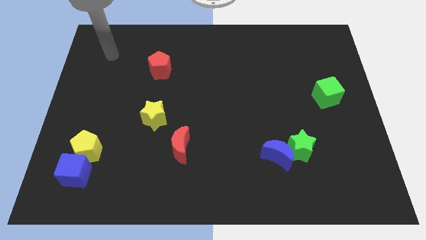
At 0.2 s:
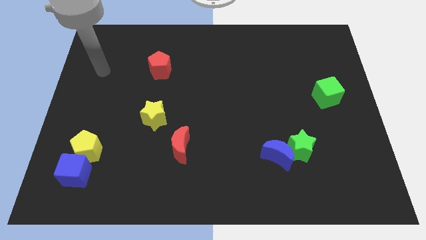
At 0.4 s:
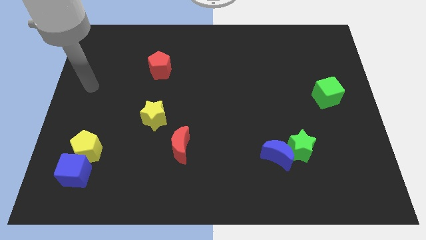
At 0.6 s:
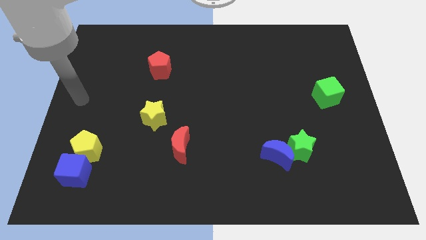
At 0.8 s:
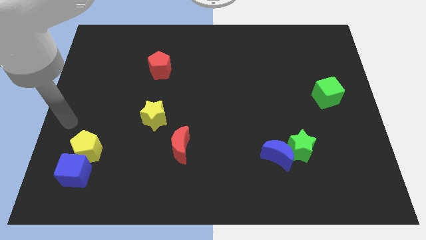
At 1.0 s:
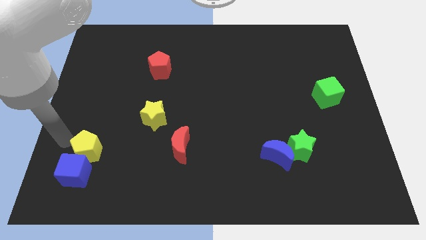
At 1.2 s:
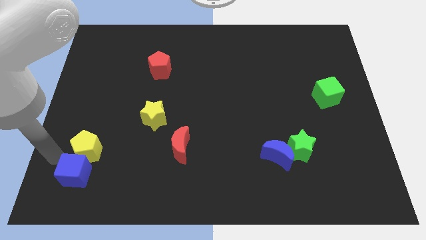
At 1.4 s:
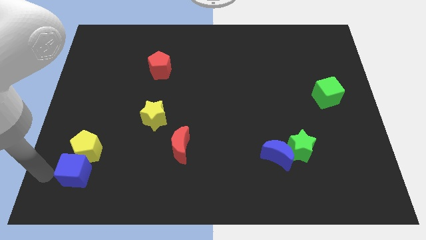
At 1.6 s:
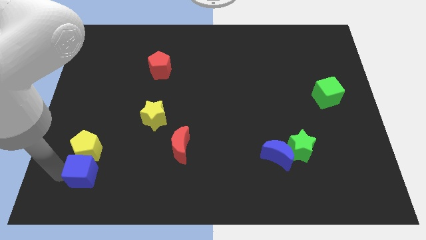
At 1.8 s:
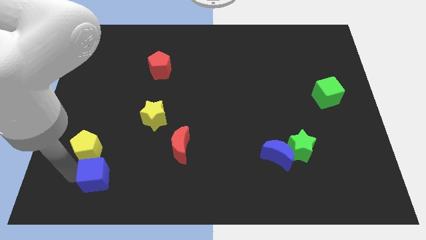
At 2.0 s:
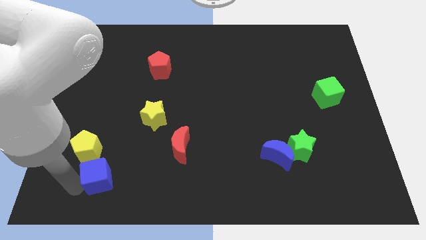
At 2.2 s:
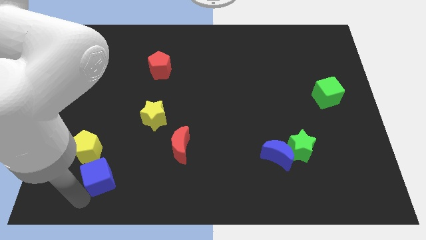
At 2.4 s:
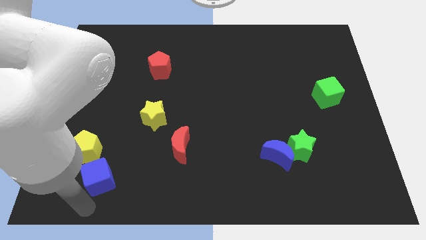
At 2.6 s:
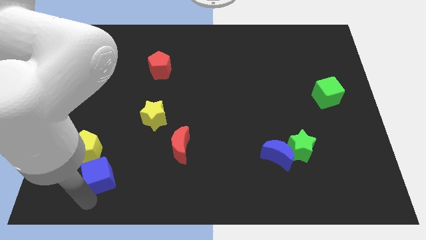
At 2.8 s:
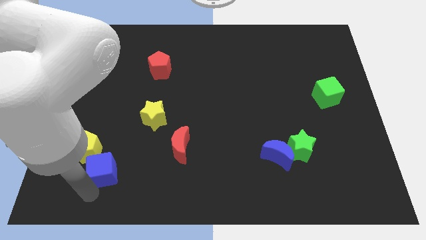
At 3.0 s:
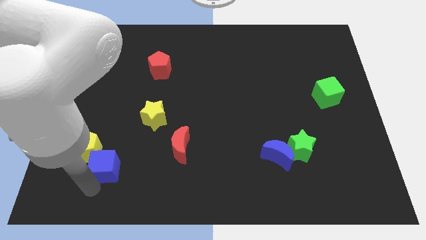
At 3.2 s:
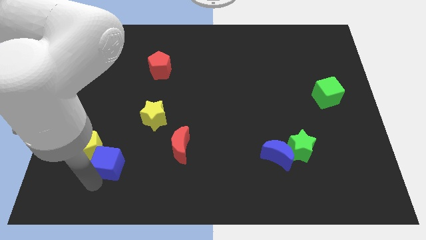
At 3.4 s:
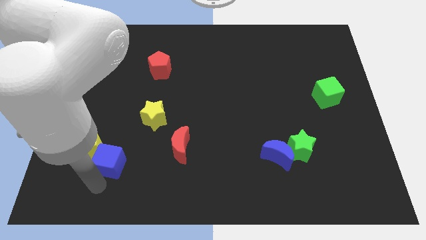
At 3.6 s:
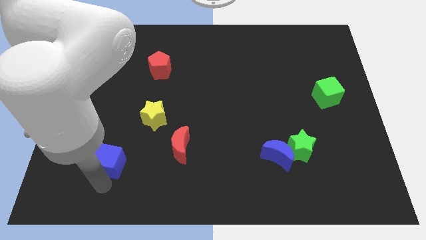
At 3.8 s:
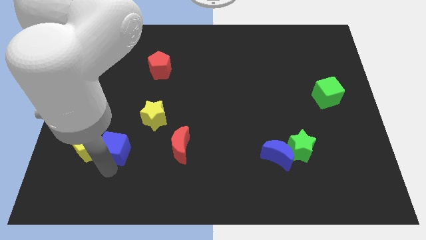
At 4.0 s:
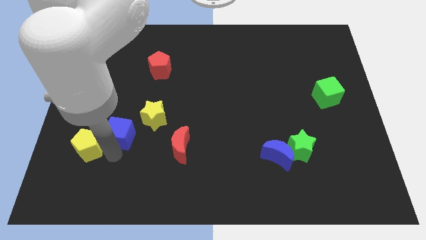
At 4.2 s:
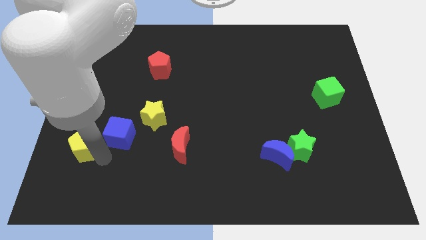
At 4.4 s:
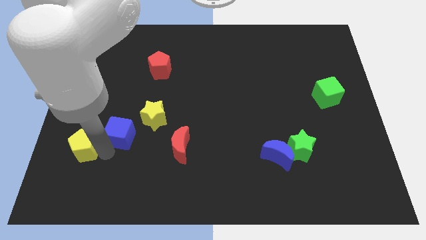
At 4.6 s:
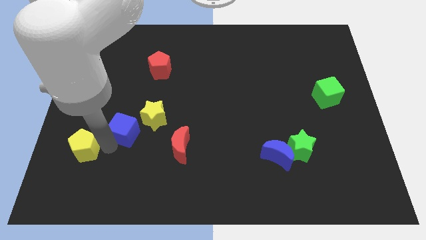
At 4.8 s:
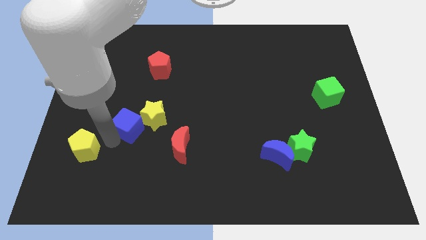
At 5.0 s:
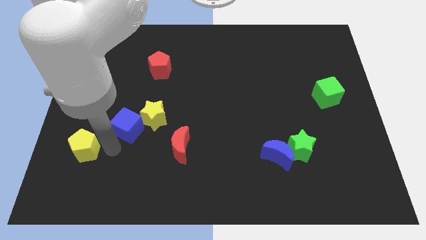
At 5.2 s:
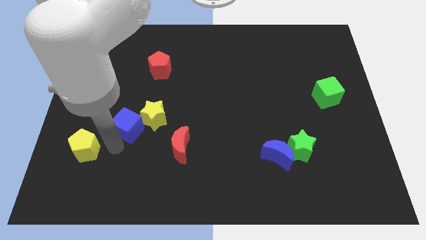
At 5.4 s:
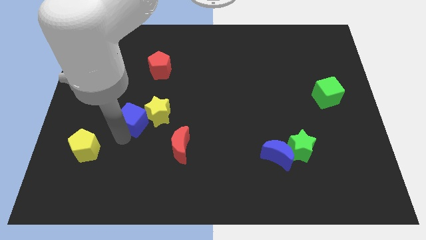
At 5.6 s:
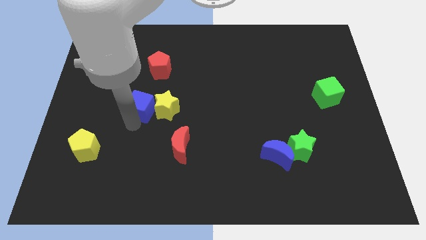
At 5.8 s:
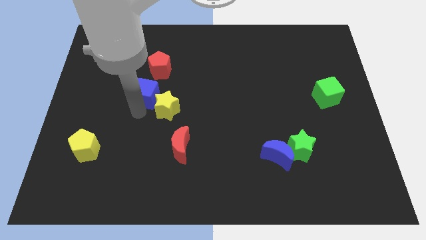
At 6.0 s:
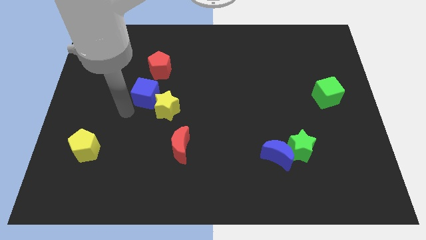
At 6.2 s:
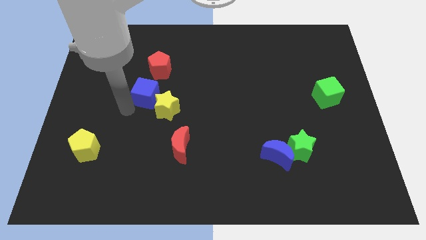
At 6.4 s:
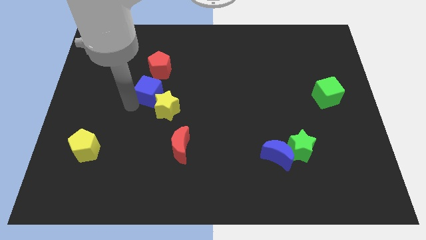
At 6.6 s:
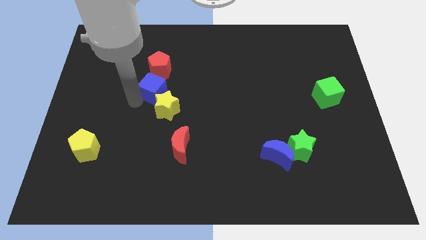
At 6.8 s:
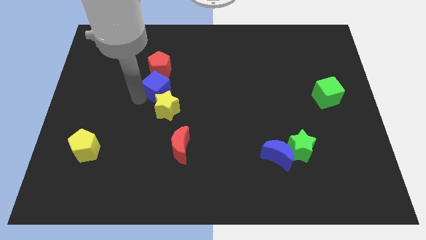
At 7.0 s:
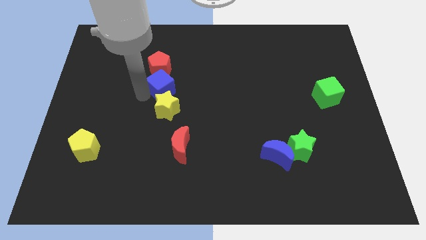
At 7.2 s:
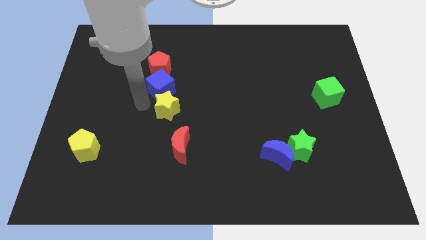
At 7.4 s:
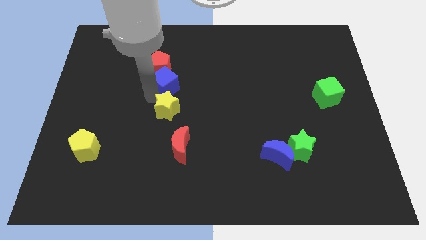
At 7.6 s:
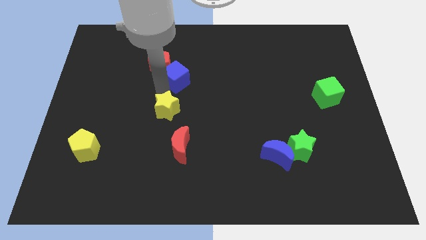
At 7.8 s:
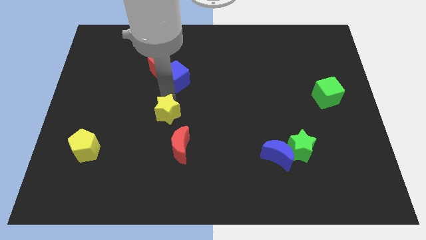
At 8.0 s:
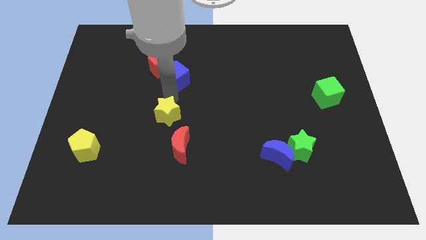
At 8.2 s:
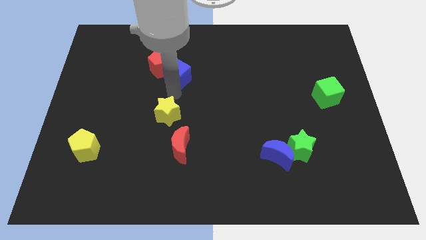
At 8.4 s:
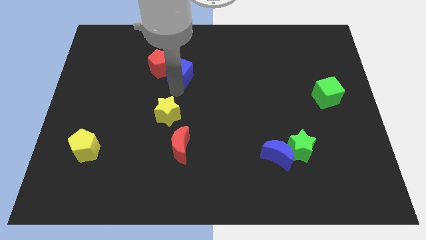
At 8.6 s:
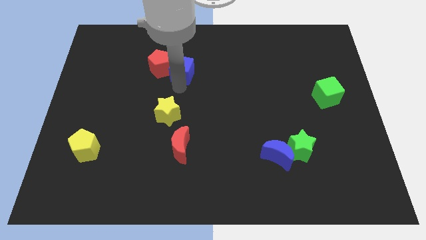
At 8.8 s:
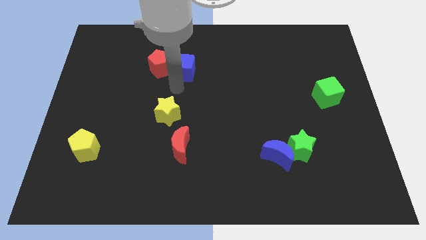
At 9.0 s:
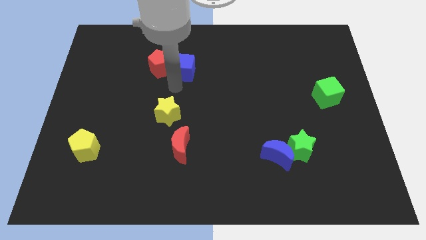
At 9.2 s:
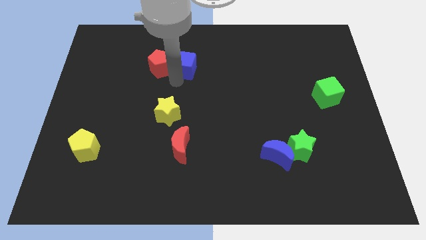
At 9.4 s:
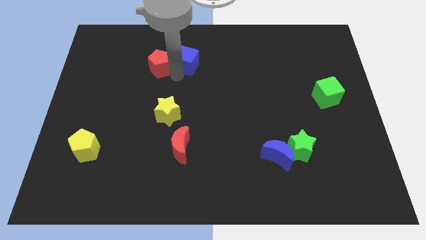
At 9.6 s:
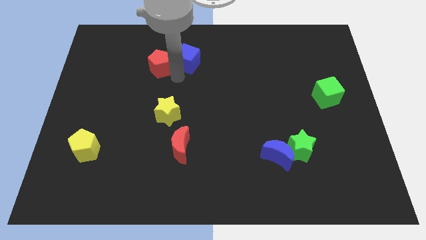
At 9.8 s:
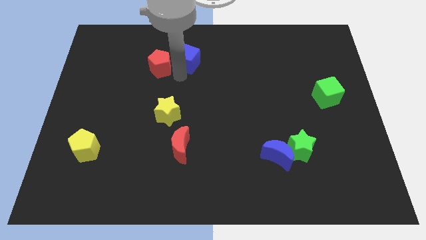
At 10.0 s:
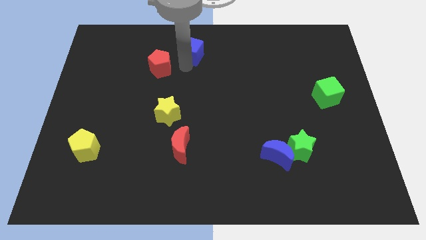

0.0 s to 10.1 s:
put the blue cube to the towards your base

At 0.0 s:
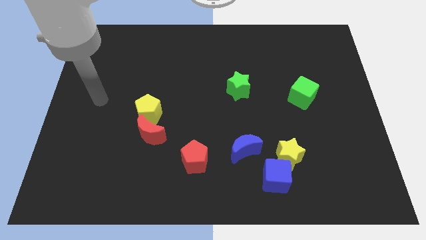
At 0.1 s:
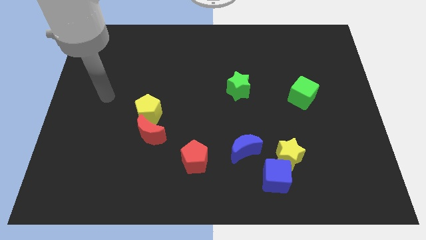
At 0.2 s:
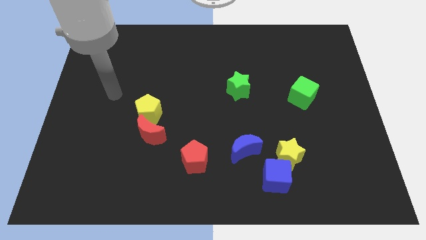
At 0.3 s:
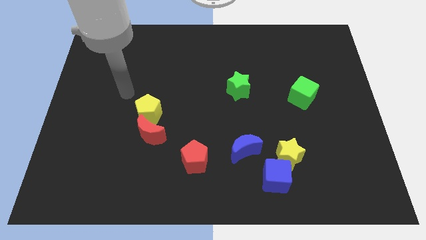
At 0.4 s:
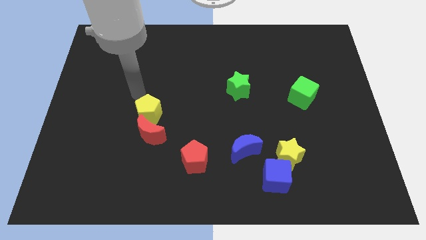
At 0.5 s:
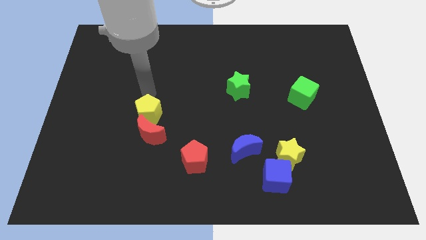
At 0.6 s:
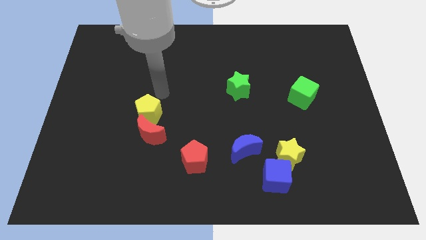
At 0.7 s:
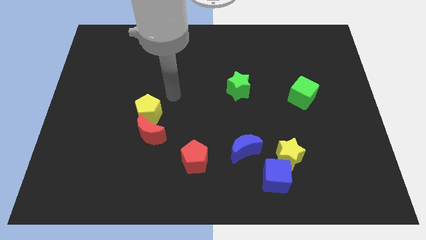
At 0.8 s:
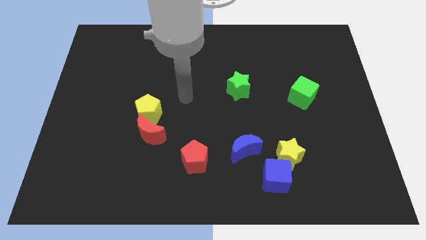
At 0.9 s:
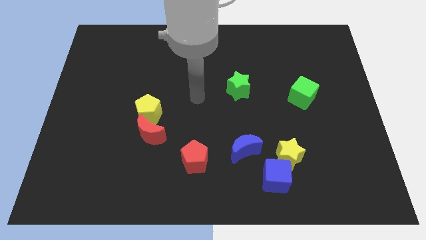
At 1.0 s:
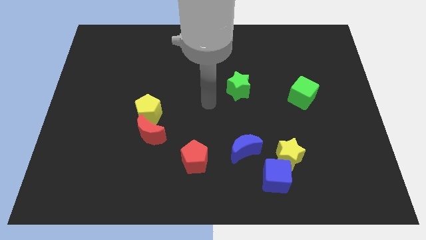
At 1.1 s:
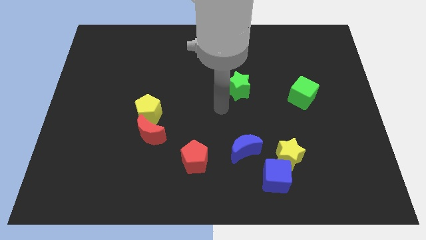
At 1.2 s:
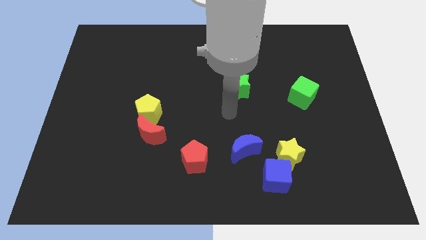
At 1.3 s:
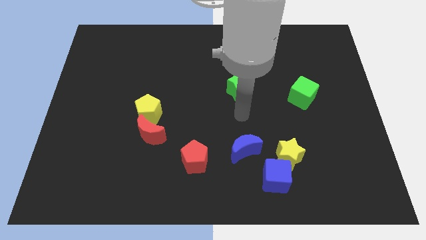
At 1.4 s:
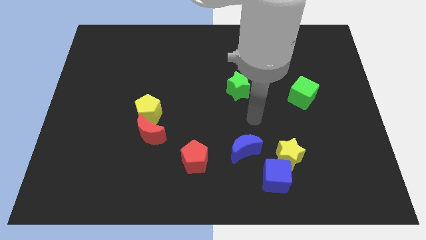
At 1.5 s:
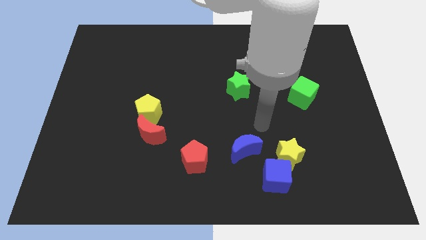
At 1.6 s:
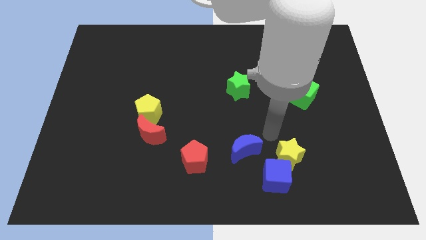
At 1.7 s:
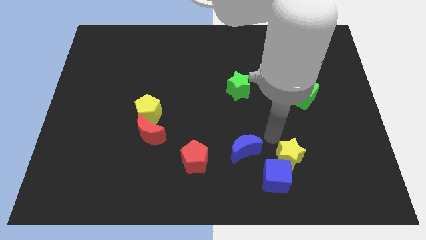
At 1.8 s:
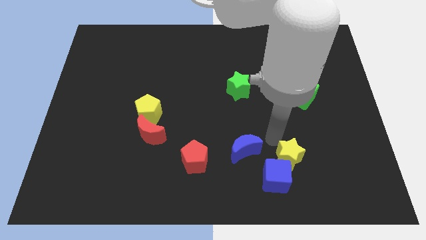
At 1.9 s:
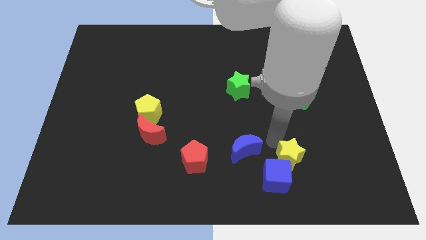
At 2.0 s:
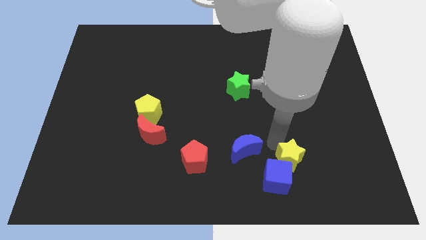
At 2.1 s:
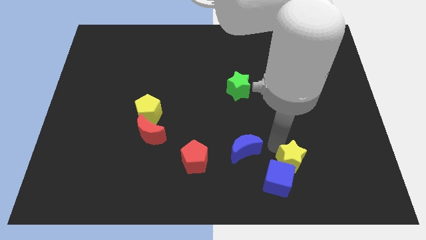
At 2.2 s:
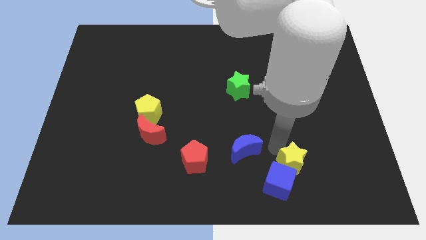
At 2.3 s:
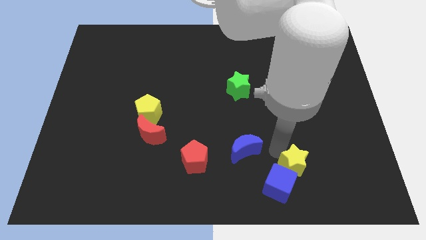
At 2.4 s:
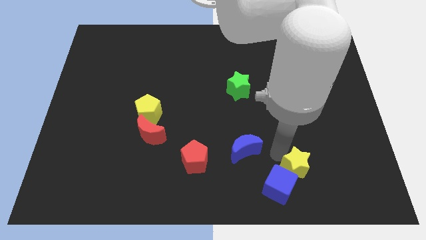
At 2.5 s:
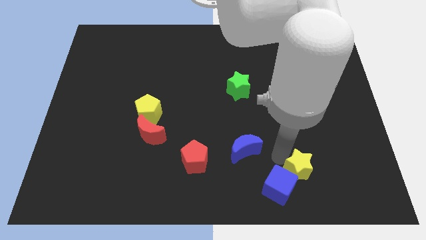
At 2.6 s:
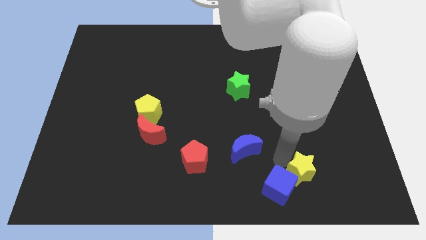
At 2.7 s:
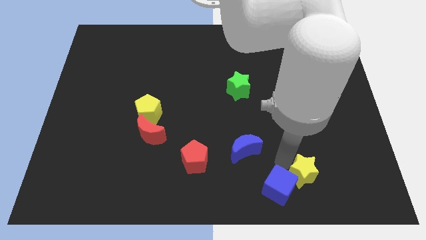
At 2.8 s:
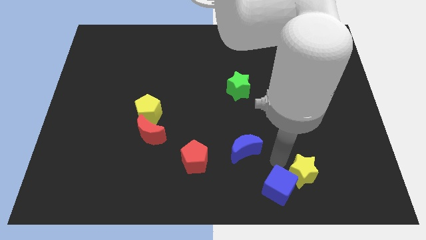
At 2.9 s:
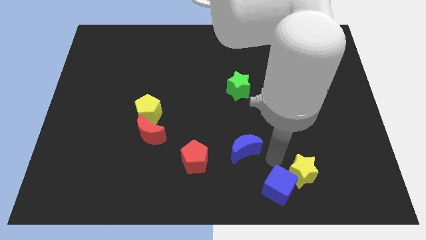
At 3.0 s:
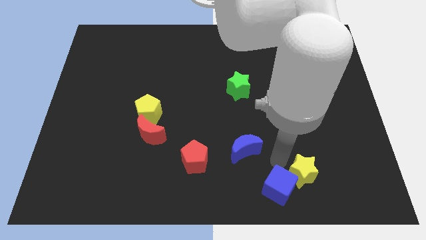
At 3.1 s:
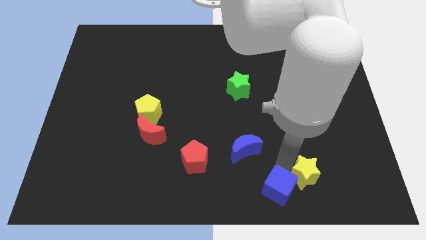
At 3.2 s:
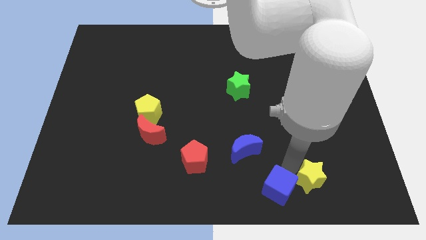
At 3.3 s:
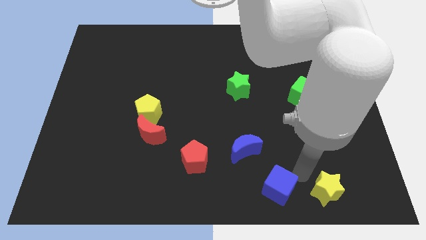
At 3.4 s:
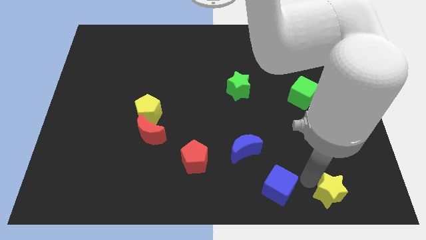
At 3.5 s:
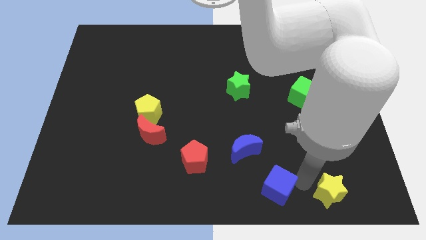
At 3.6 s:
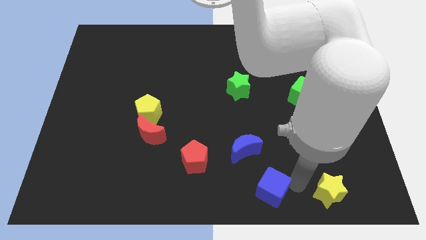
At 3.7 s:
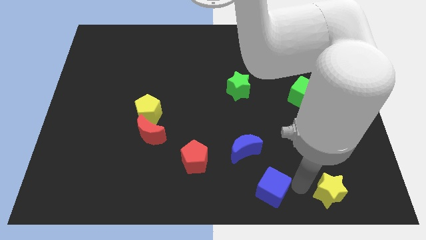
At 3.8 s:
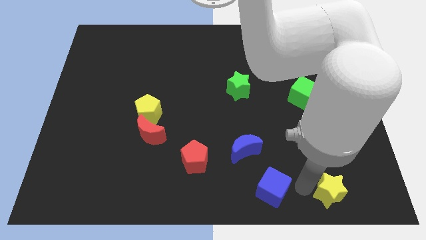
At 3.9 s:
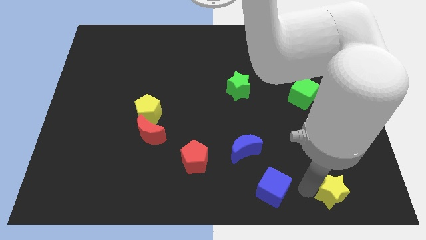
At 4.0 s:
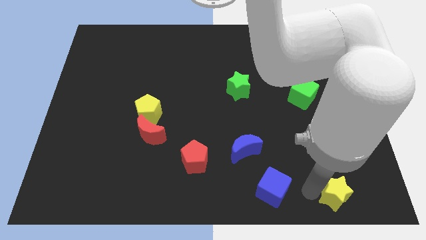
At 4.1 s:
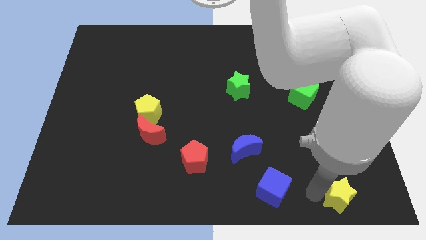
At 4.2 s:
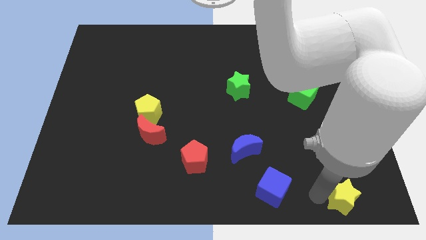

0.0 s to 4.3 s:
slide the yellow star to the lower right corner
